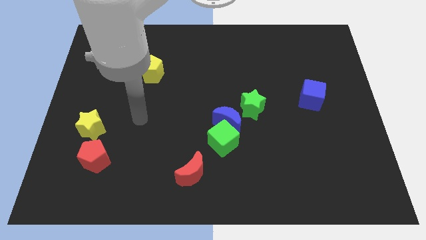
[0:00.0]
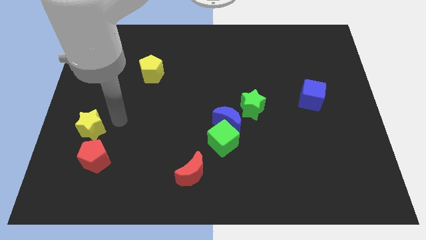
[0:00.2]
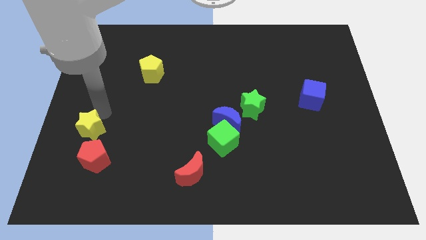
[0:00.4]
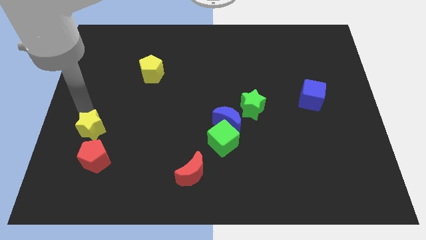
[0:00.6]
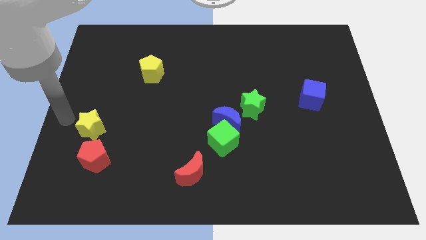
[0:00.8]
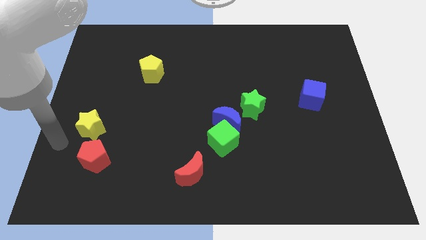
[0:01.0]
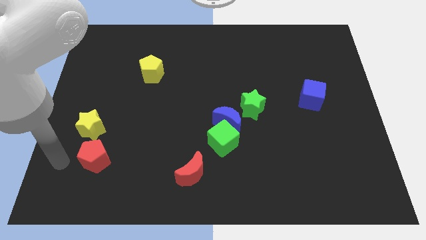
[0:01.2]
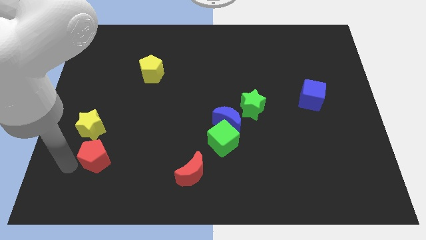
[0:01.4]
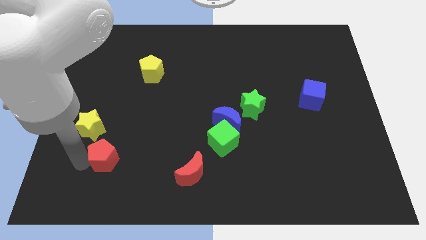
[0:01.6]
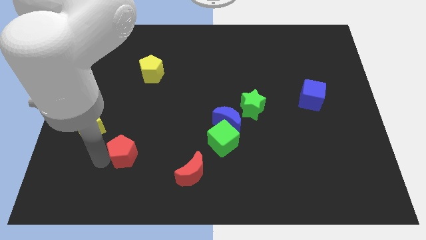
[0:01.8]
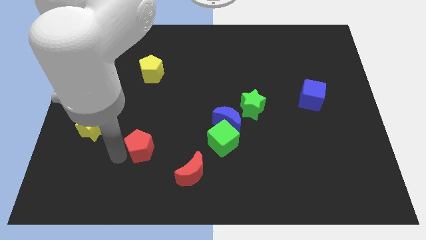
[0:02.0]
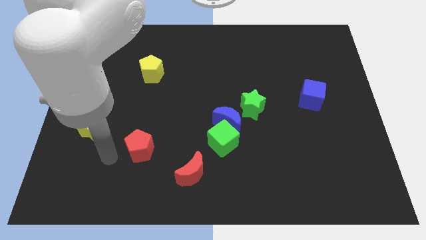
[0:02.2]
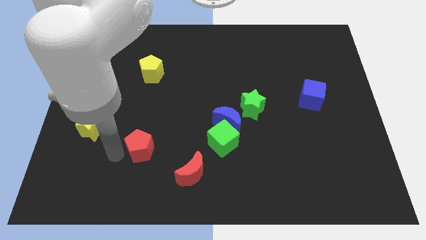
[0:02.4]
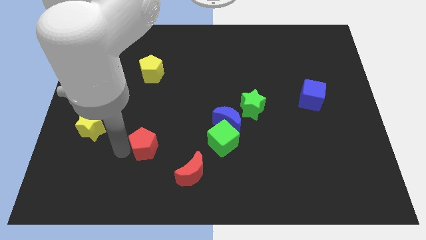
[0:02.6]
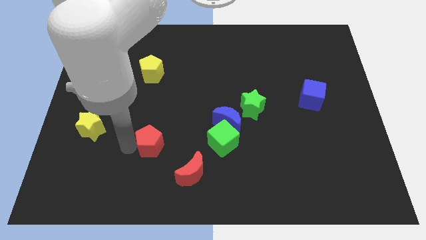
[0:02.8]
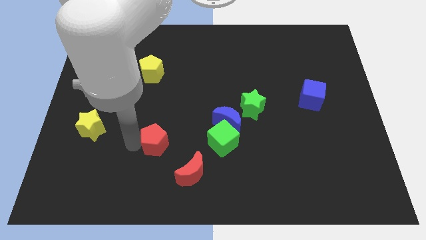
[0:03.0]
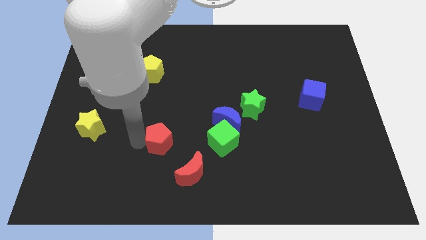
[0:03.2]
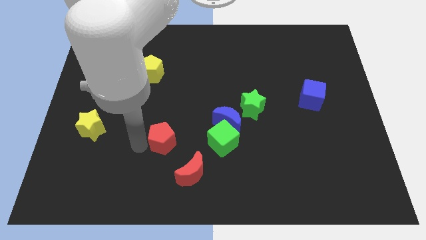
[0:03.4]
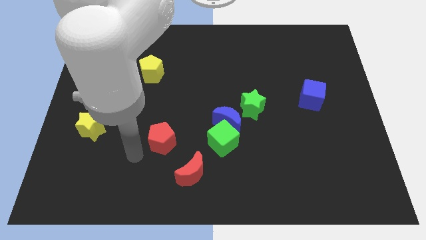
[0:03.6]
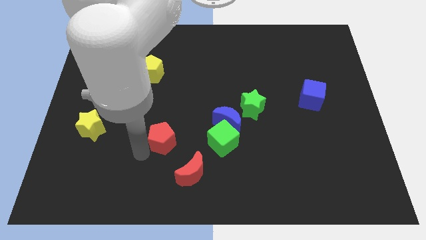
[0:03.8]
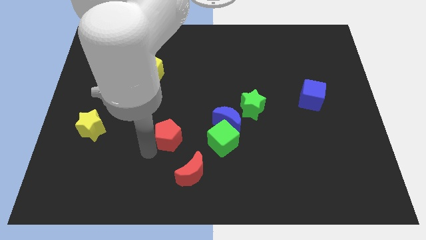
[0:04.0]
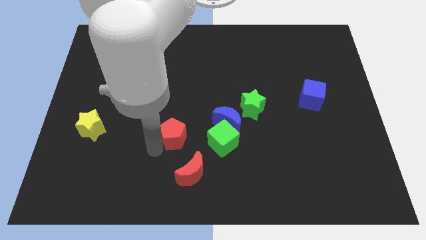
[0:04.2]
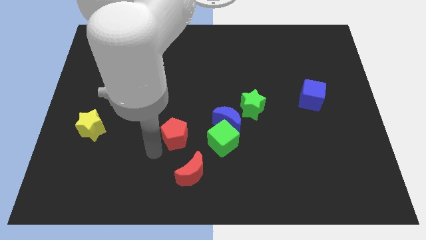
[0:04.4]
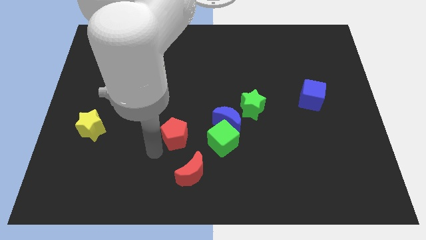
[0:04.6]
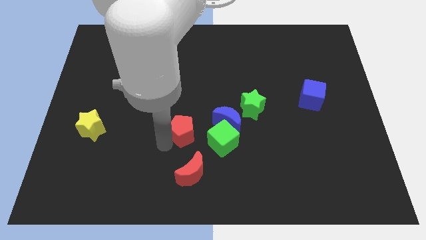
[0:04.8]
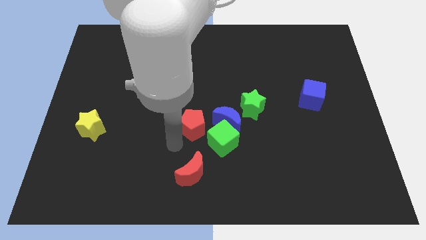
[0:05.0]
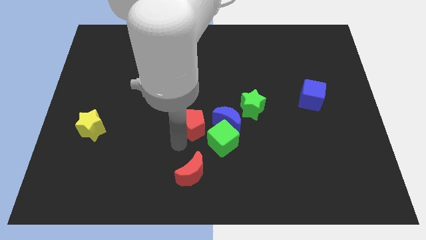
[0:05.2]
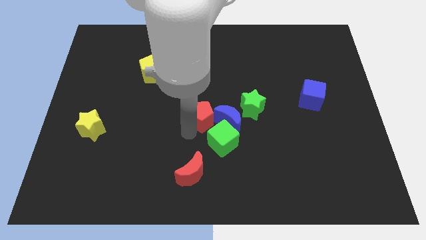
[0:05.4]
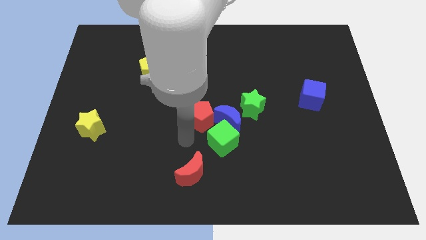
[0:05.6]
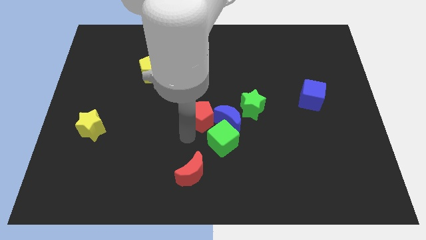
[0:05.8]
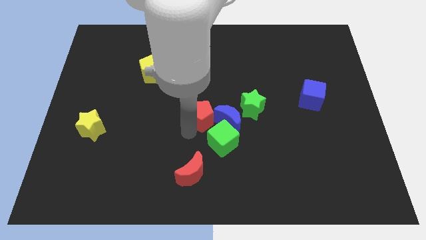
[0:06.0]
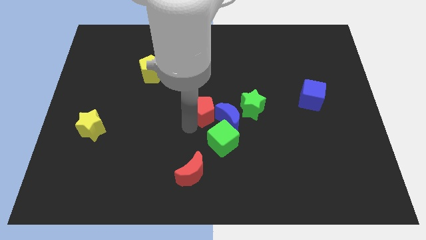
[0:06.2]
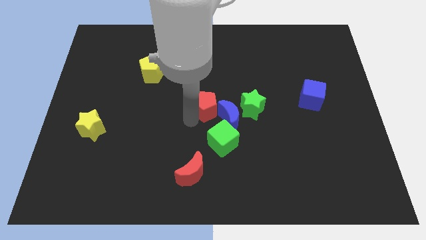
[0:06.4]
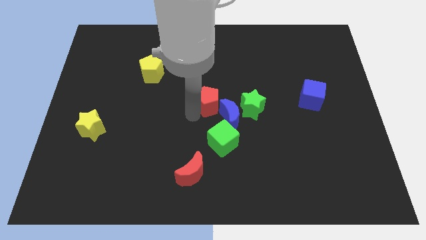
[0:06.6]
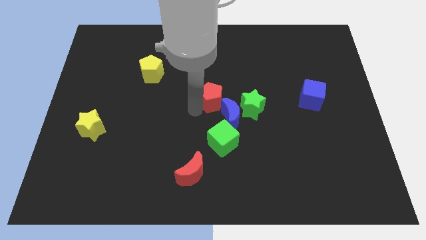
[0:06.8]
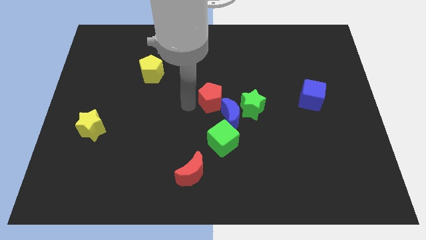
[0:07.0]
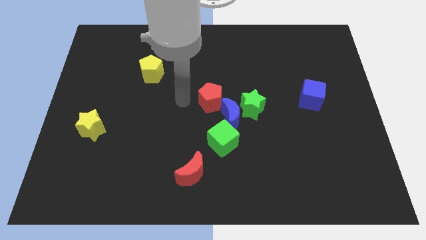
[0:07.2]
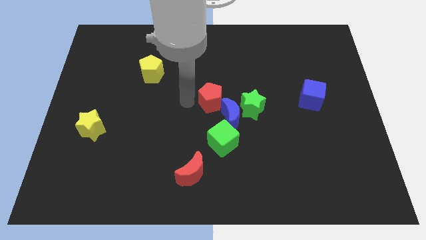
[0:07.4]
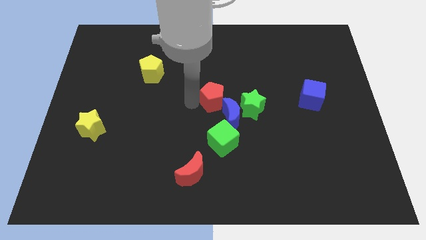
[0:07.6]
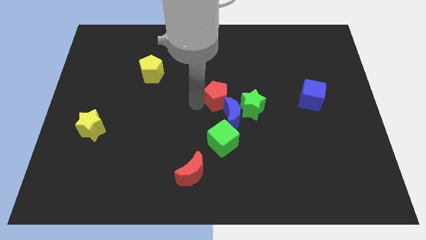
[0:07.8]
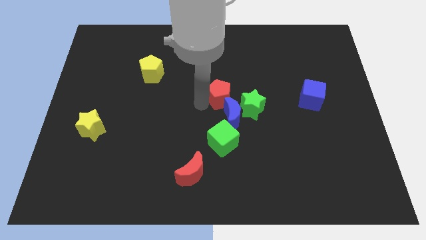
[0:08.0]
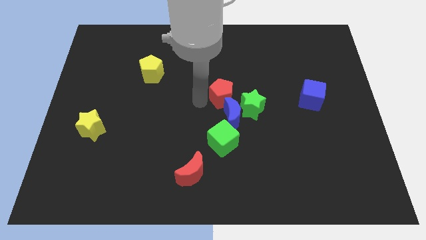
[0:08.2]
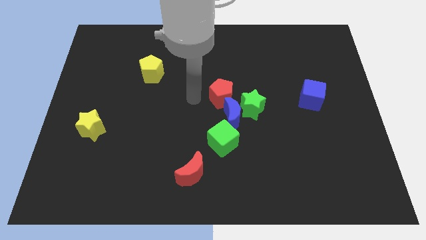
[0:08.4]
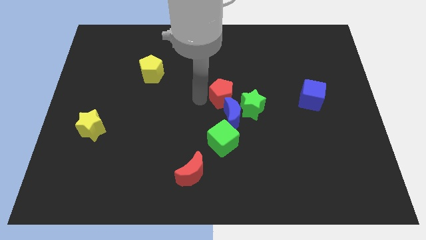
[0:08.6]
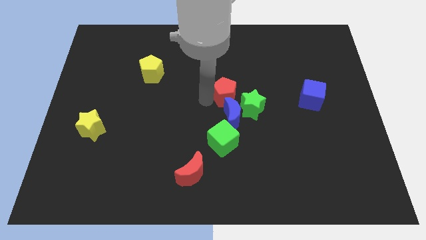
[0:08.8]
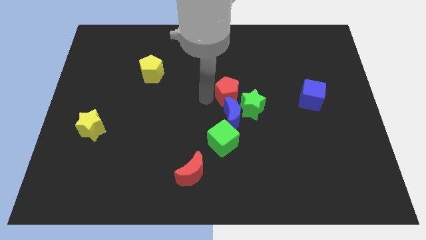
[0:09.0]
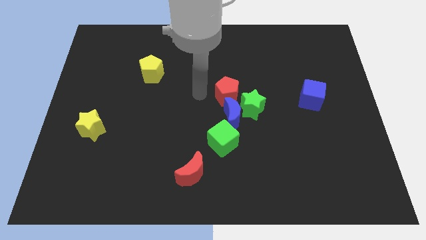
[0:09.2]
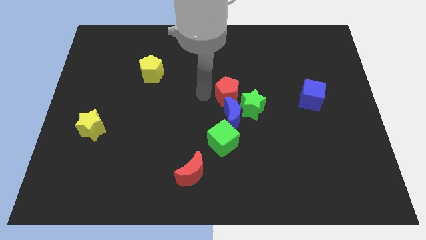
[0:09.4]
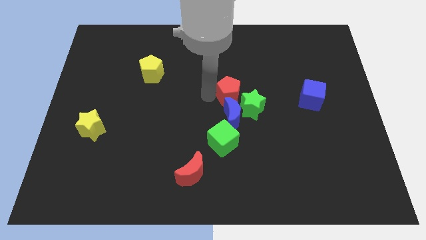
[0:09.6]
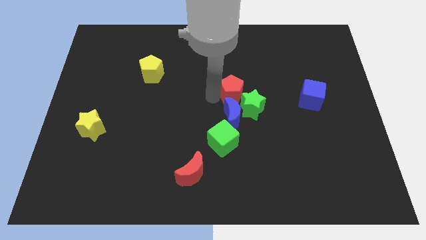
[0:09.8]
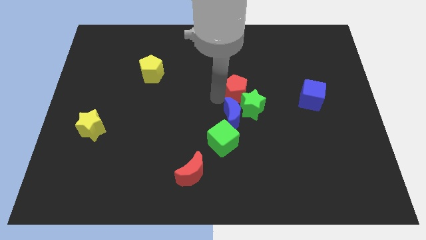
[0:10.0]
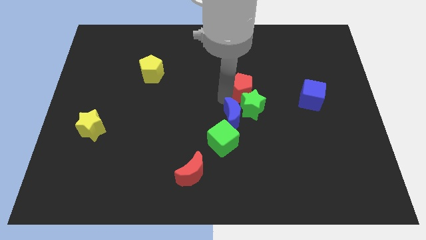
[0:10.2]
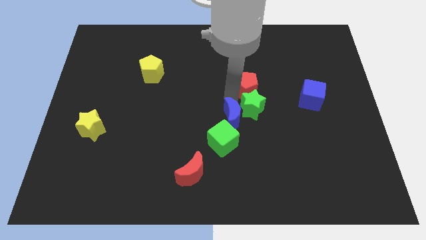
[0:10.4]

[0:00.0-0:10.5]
move the red pentagon just left of the blue cube
